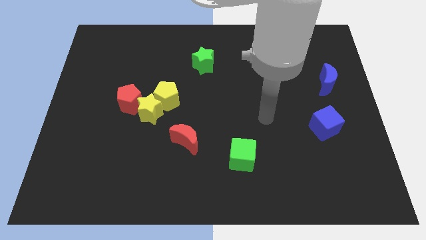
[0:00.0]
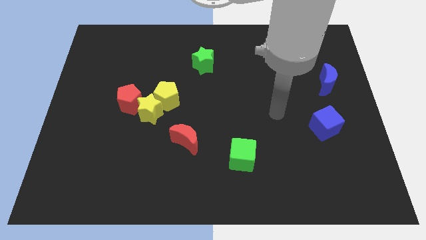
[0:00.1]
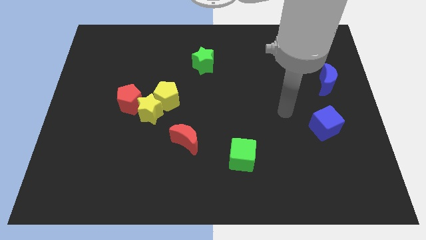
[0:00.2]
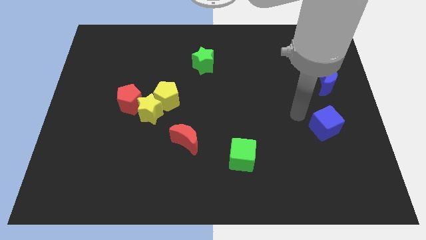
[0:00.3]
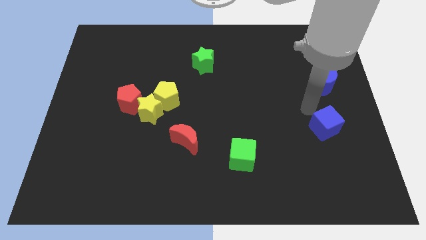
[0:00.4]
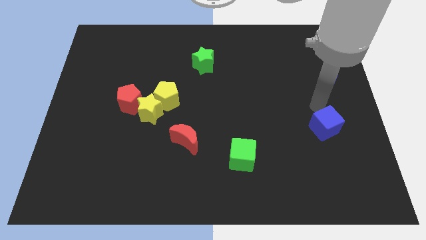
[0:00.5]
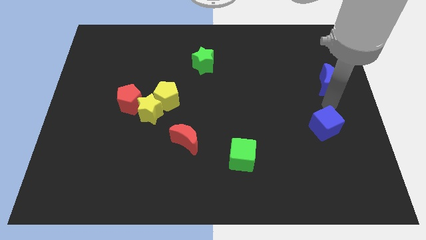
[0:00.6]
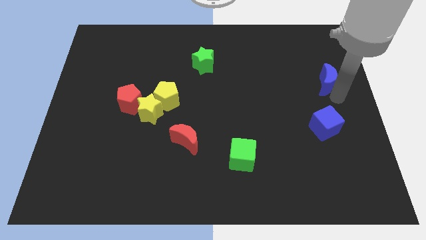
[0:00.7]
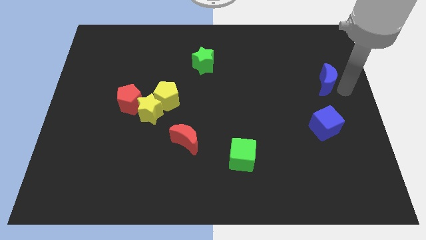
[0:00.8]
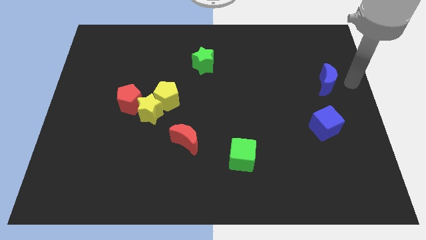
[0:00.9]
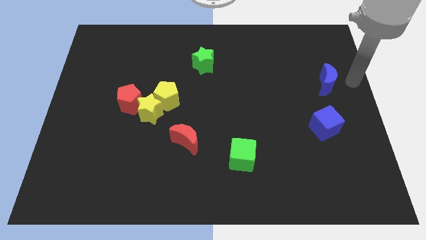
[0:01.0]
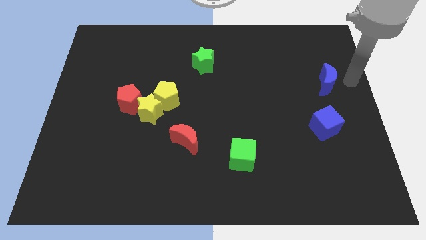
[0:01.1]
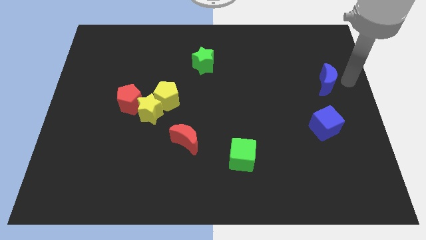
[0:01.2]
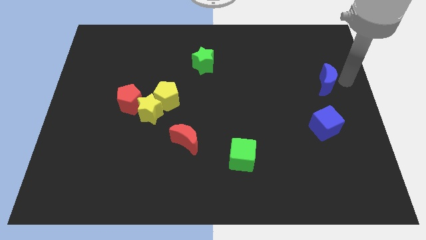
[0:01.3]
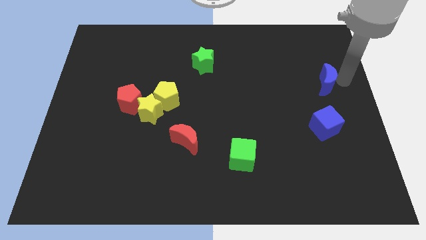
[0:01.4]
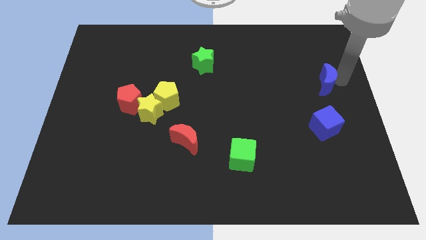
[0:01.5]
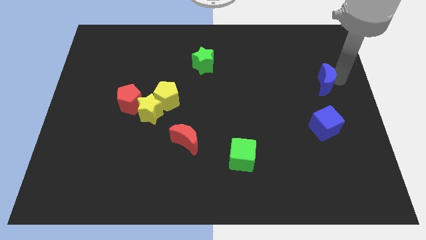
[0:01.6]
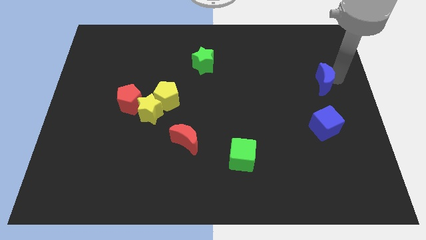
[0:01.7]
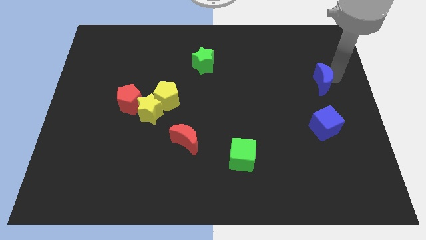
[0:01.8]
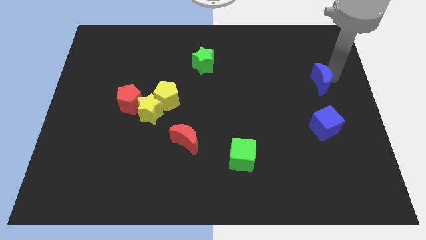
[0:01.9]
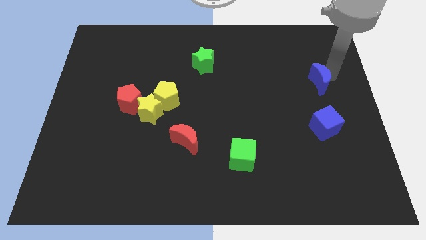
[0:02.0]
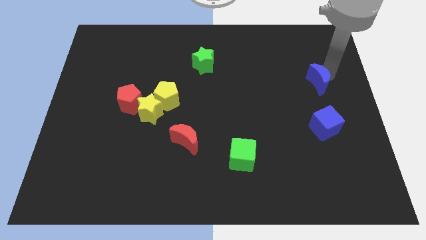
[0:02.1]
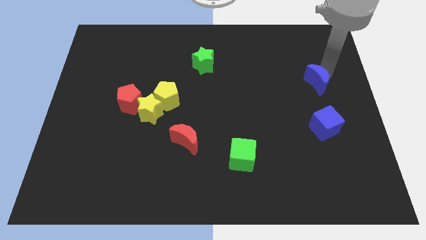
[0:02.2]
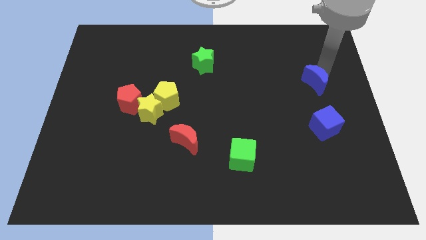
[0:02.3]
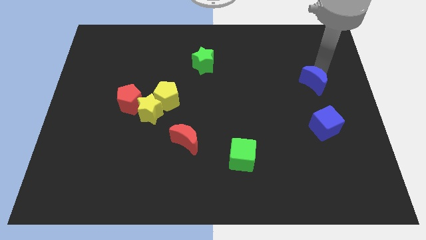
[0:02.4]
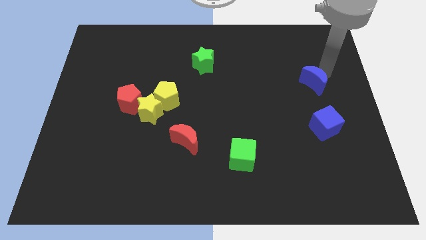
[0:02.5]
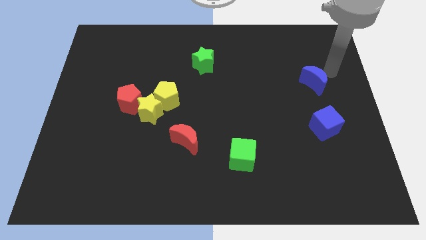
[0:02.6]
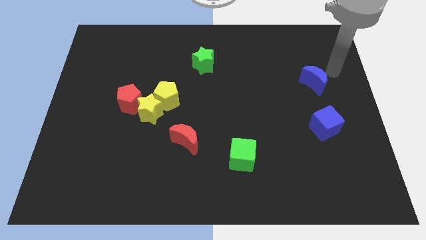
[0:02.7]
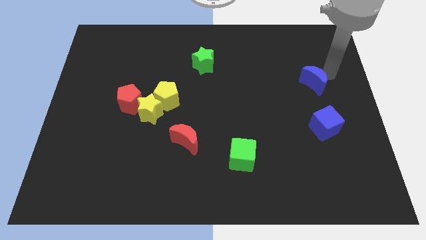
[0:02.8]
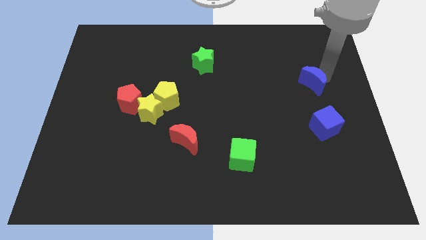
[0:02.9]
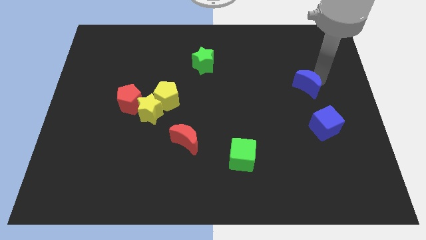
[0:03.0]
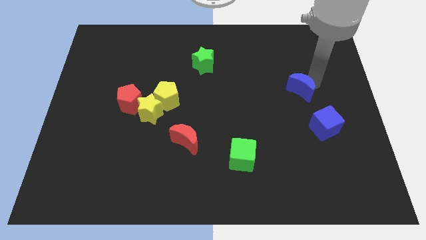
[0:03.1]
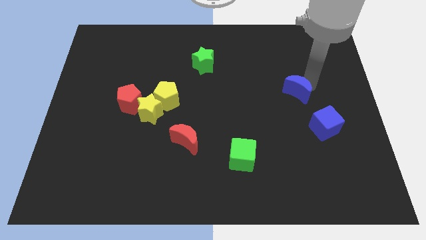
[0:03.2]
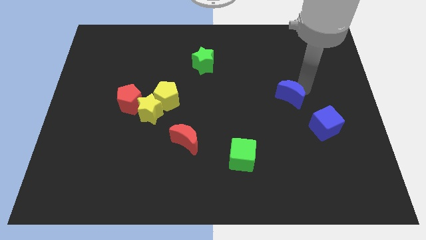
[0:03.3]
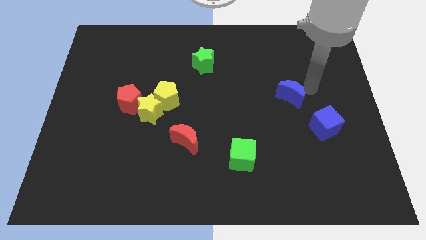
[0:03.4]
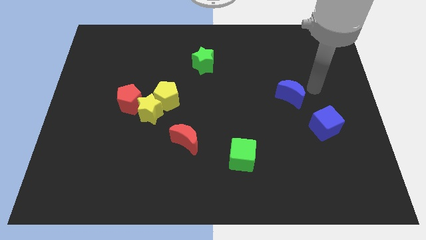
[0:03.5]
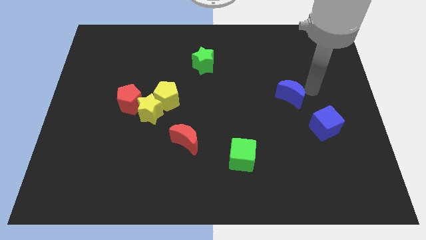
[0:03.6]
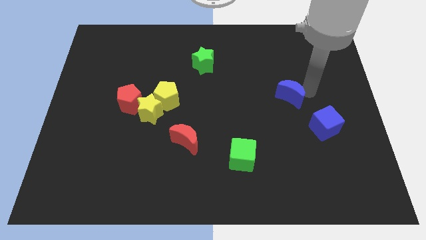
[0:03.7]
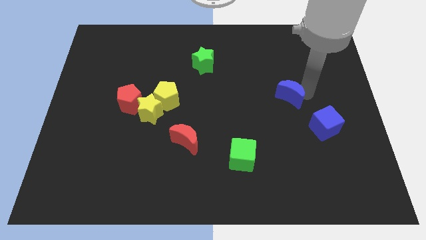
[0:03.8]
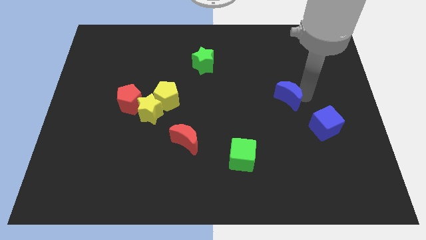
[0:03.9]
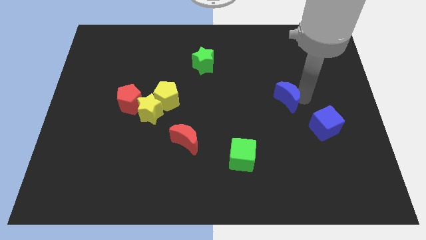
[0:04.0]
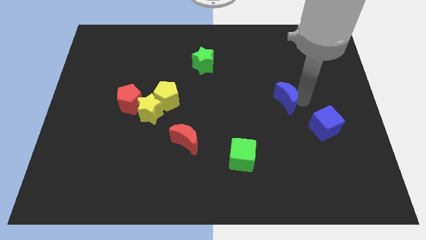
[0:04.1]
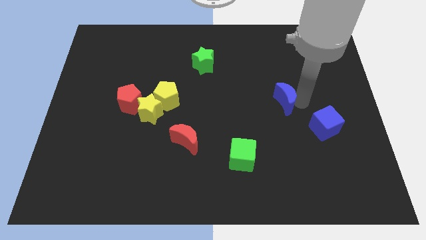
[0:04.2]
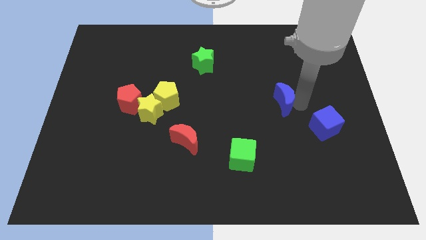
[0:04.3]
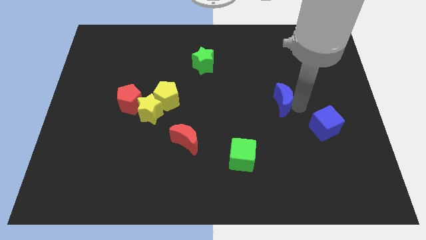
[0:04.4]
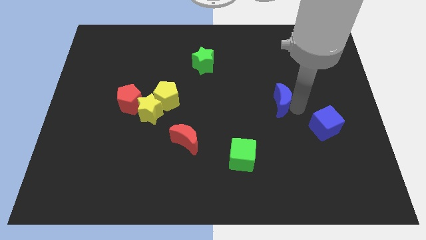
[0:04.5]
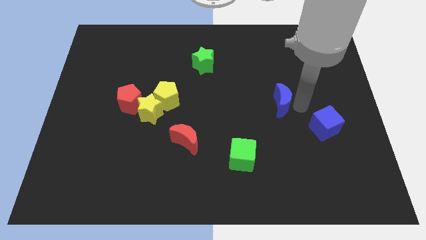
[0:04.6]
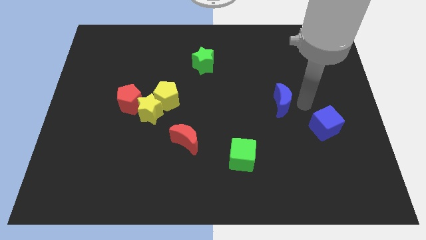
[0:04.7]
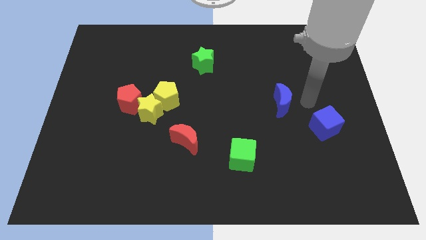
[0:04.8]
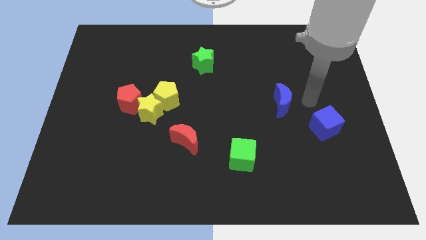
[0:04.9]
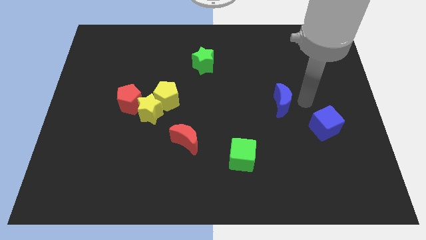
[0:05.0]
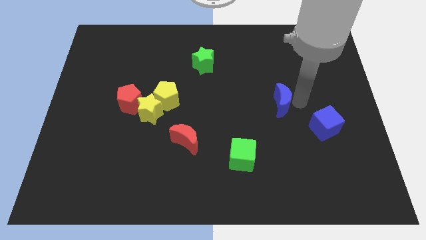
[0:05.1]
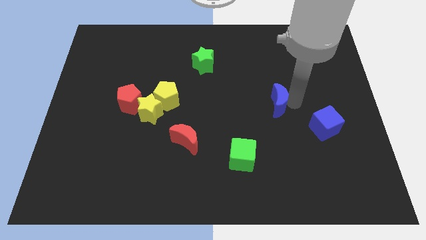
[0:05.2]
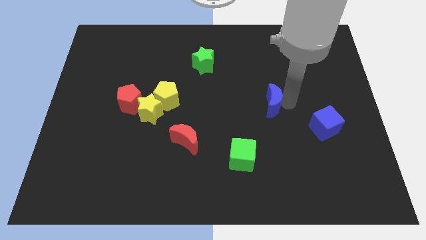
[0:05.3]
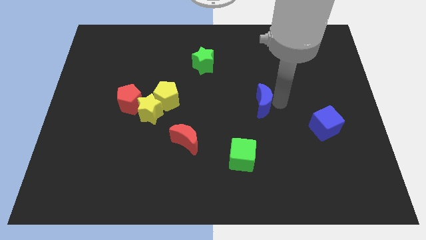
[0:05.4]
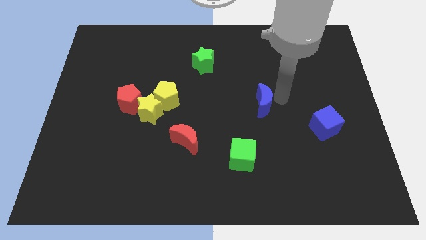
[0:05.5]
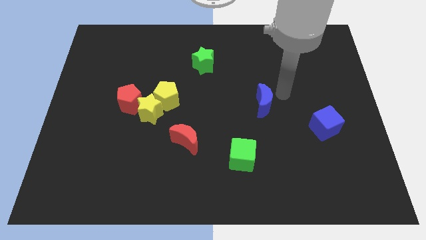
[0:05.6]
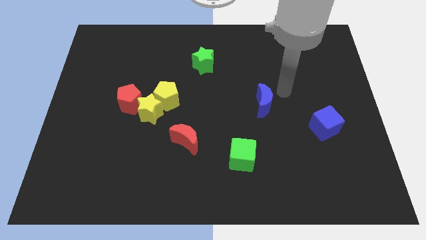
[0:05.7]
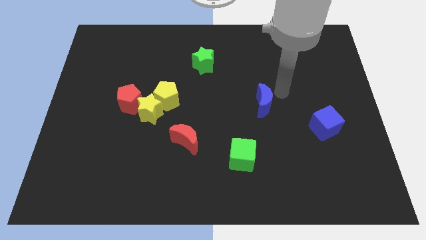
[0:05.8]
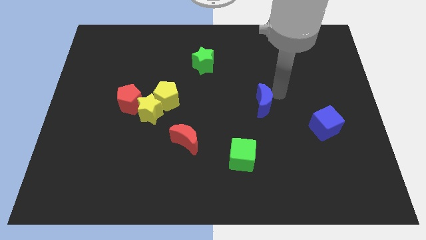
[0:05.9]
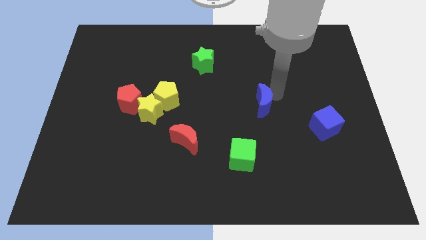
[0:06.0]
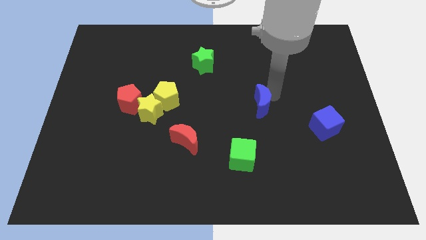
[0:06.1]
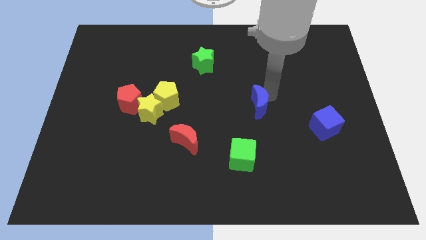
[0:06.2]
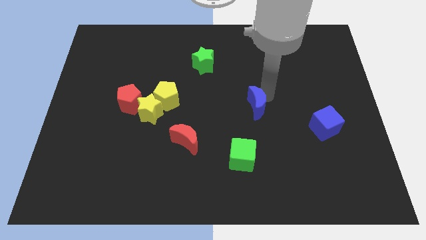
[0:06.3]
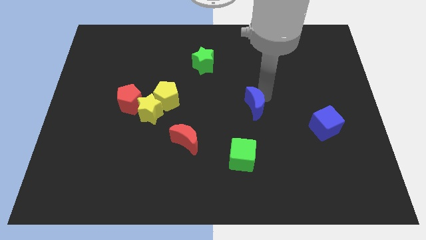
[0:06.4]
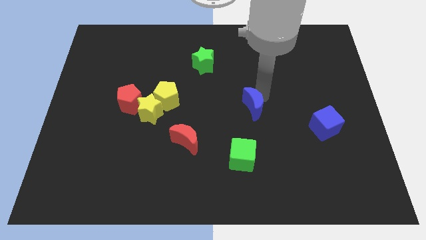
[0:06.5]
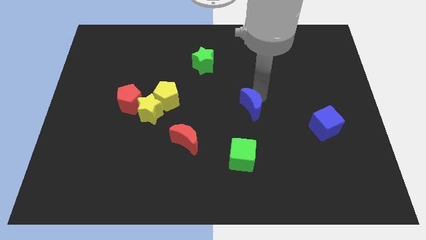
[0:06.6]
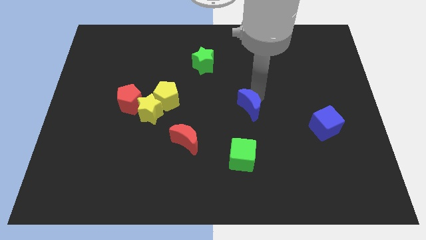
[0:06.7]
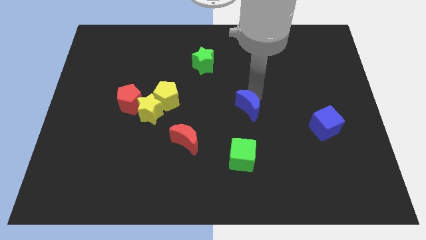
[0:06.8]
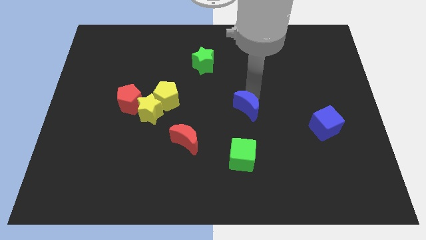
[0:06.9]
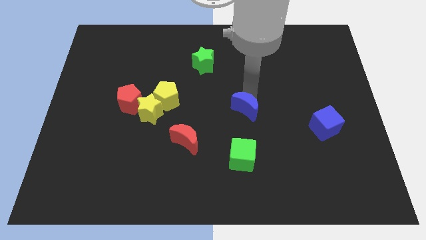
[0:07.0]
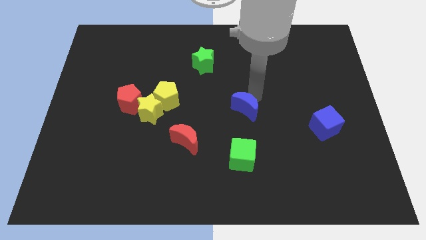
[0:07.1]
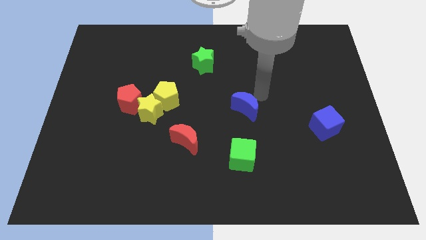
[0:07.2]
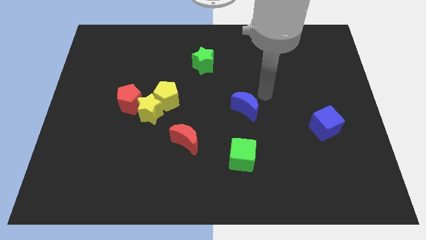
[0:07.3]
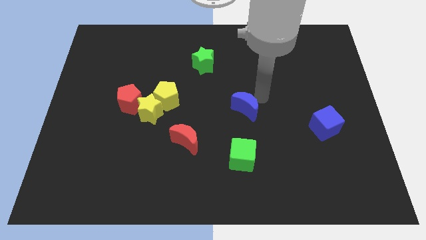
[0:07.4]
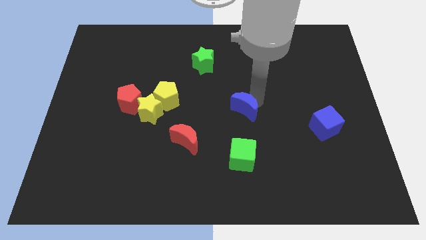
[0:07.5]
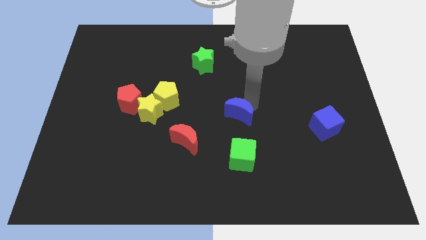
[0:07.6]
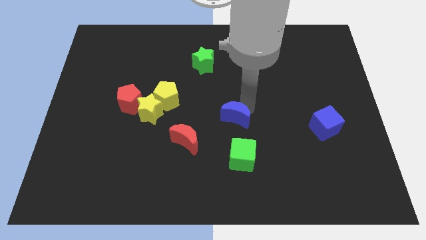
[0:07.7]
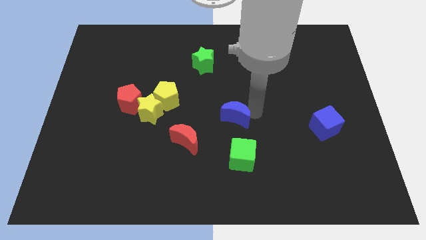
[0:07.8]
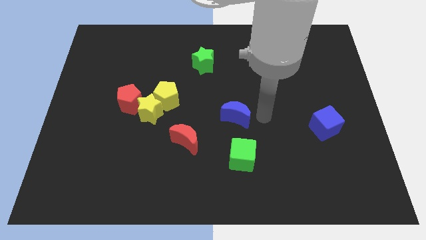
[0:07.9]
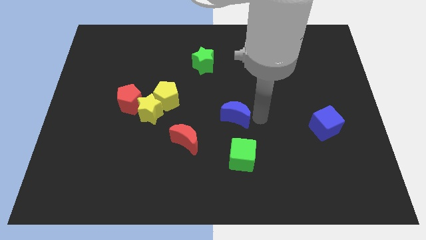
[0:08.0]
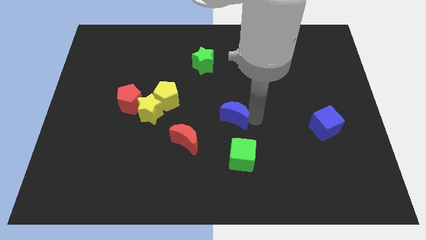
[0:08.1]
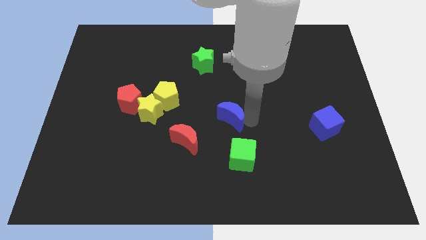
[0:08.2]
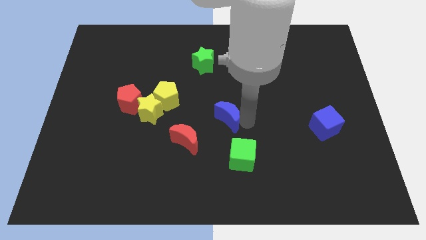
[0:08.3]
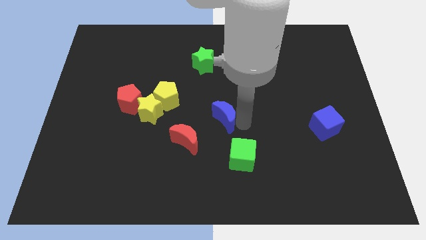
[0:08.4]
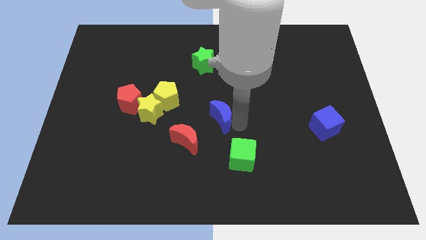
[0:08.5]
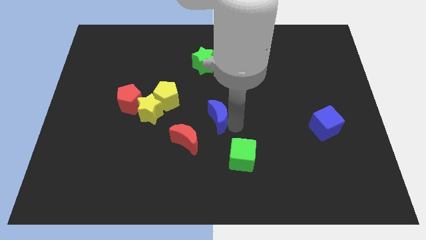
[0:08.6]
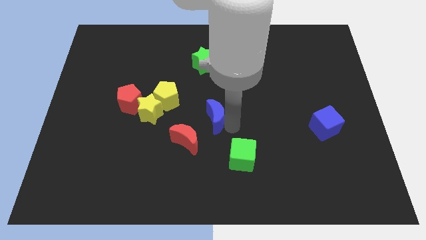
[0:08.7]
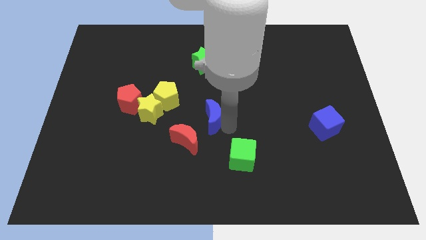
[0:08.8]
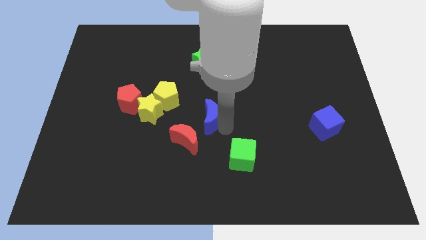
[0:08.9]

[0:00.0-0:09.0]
push the blue moon to the bottom right side of the yellow pentagon
